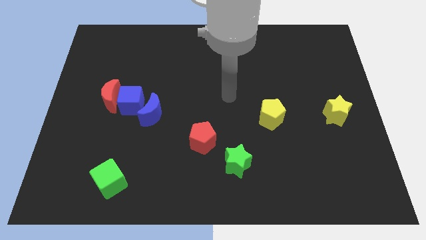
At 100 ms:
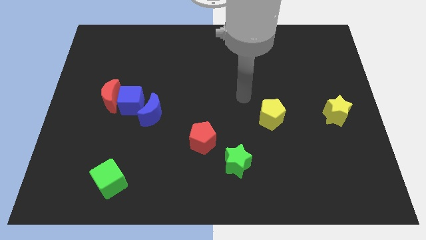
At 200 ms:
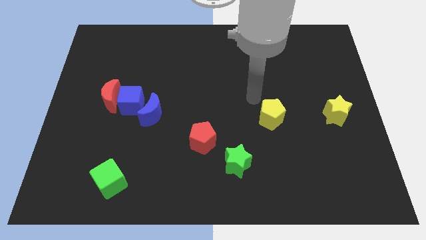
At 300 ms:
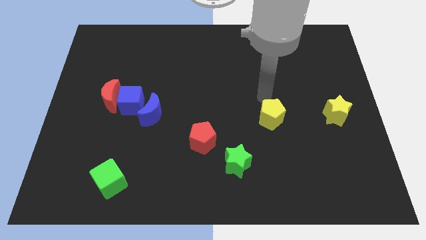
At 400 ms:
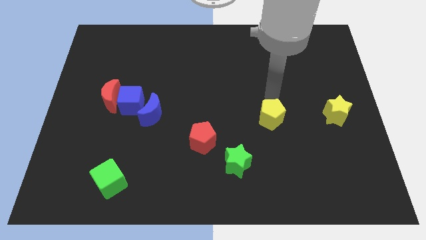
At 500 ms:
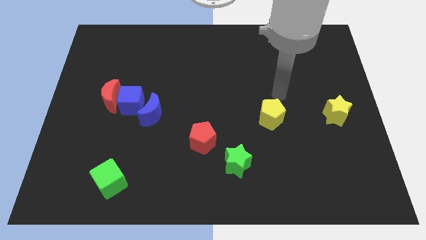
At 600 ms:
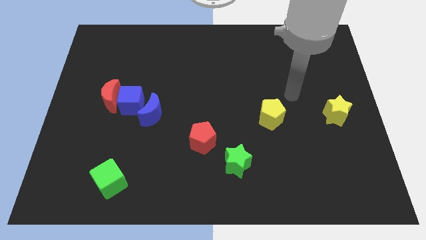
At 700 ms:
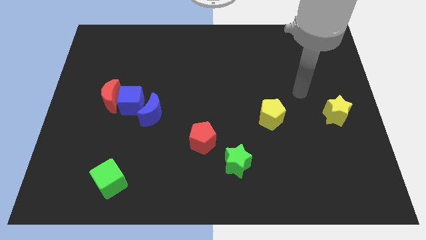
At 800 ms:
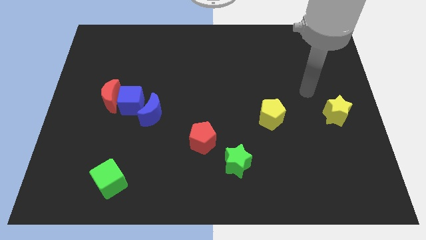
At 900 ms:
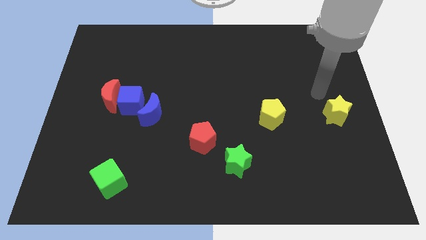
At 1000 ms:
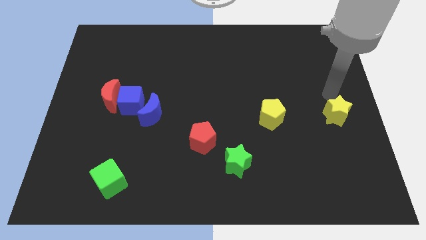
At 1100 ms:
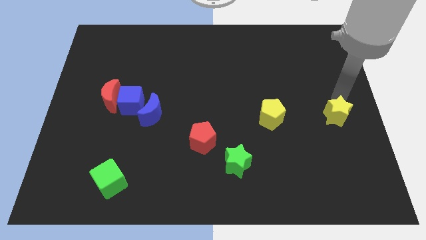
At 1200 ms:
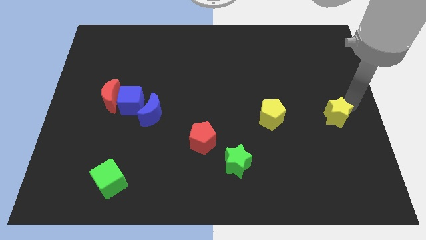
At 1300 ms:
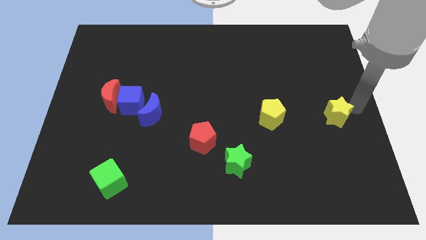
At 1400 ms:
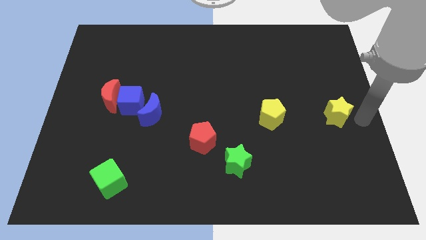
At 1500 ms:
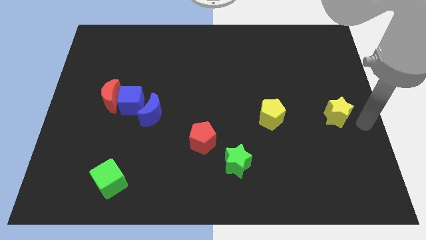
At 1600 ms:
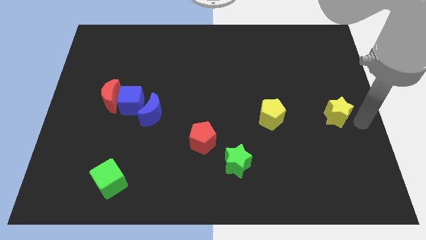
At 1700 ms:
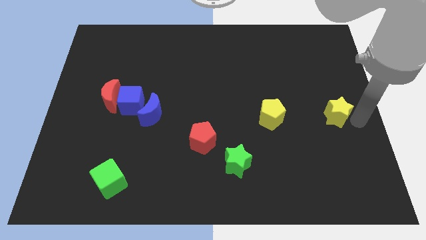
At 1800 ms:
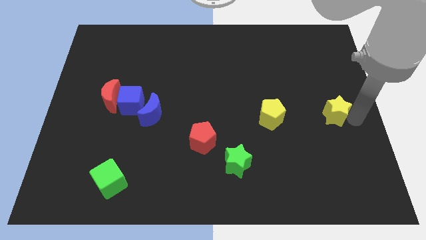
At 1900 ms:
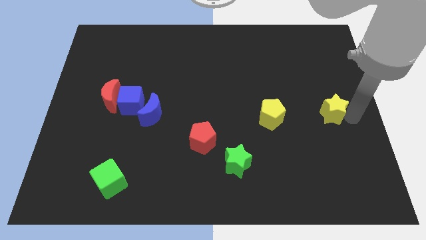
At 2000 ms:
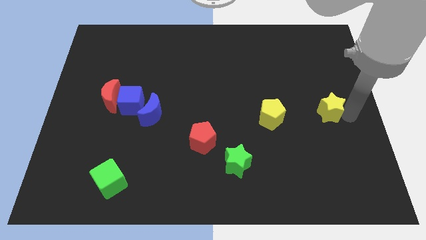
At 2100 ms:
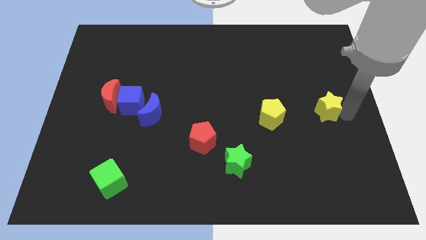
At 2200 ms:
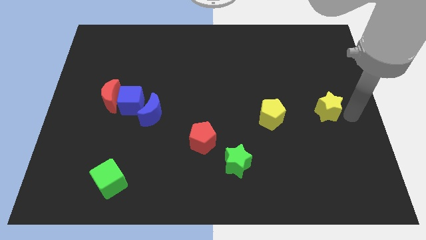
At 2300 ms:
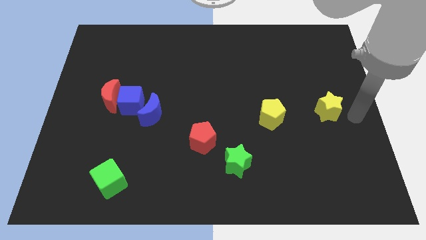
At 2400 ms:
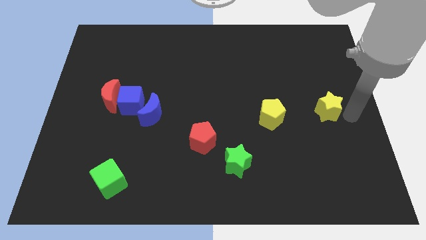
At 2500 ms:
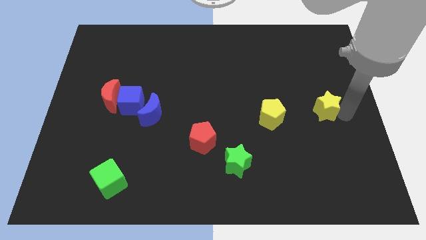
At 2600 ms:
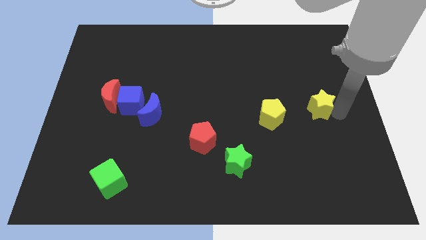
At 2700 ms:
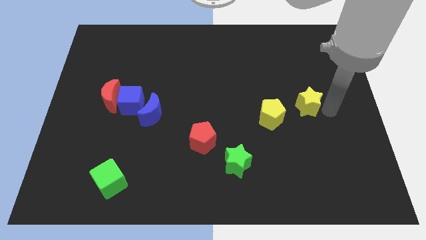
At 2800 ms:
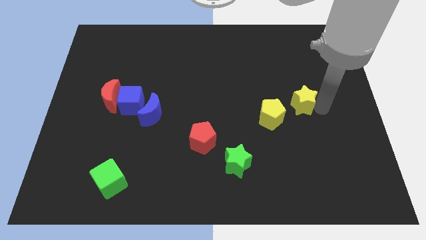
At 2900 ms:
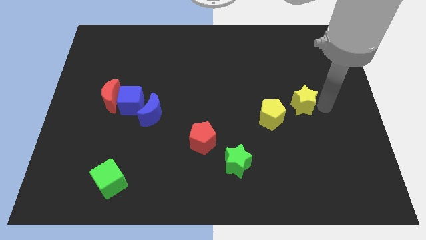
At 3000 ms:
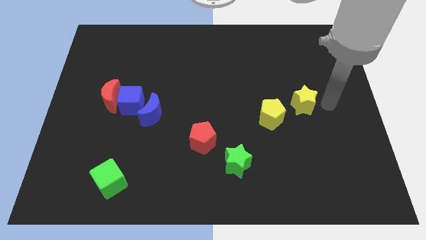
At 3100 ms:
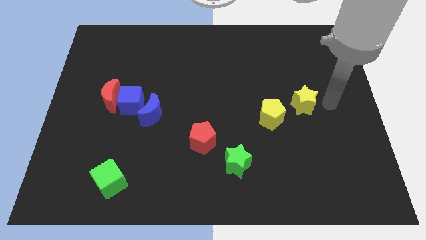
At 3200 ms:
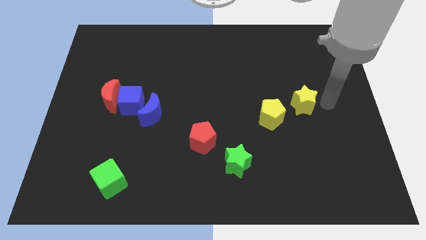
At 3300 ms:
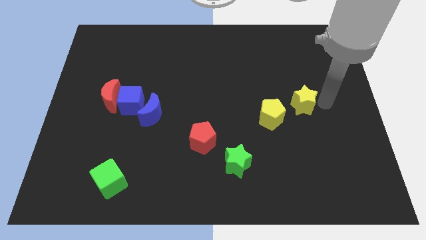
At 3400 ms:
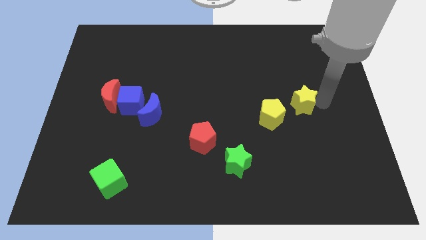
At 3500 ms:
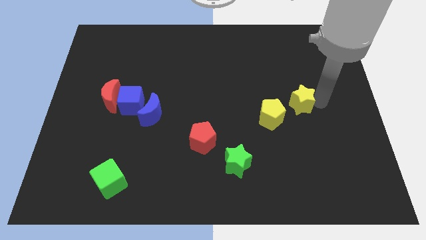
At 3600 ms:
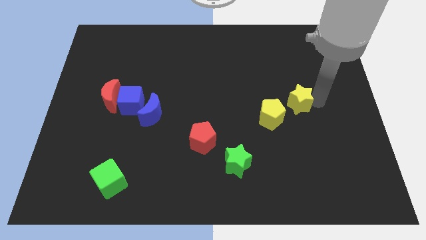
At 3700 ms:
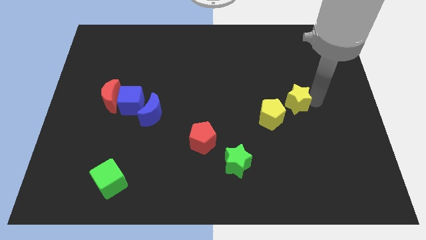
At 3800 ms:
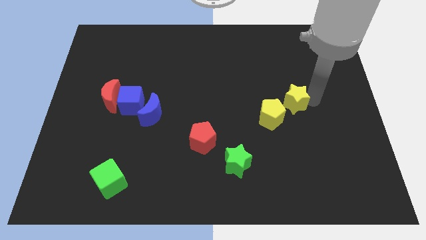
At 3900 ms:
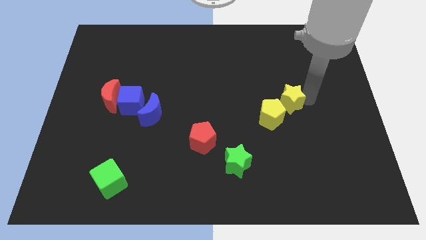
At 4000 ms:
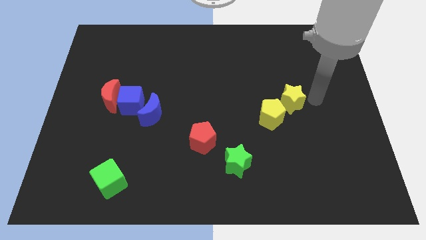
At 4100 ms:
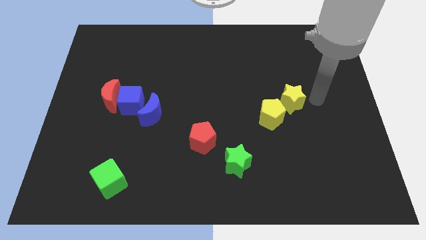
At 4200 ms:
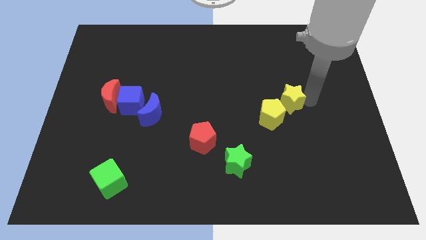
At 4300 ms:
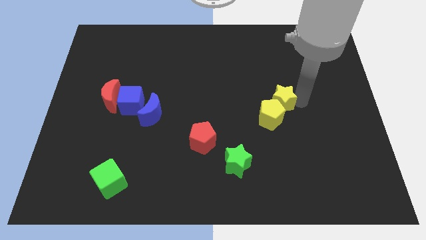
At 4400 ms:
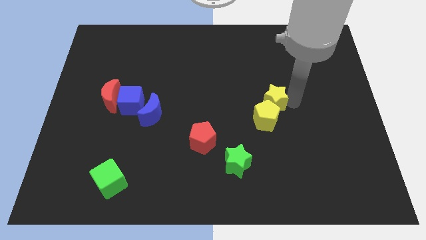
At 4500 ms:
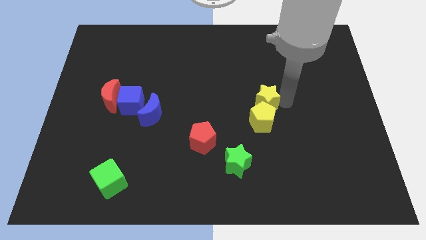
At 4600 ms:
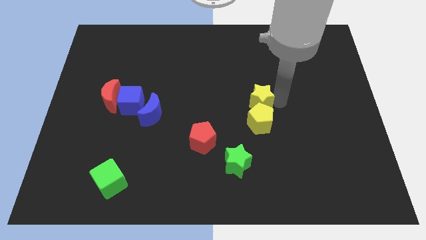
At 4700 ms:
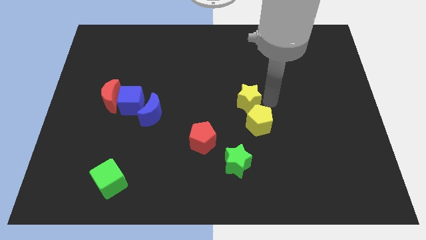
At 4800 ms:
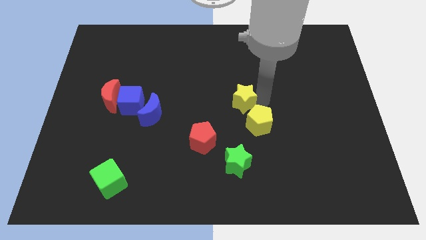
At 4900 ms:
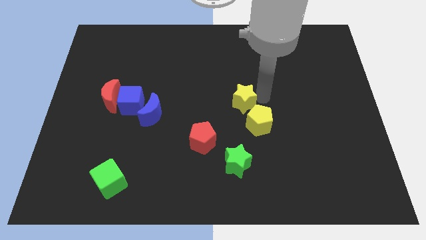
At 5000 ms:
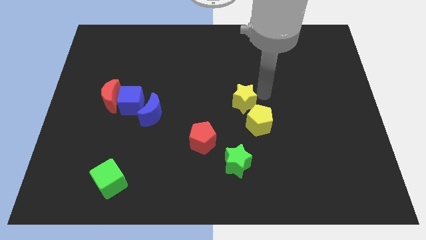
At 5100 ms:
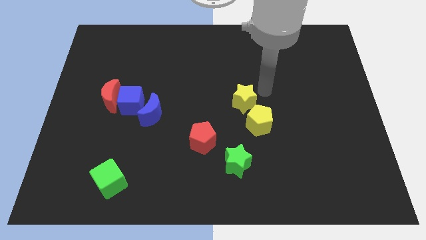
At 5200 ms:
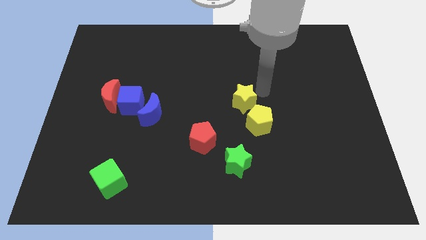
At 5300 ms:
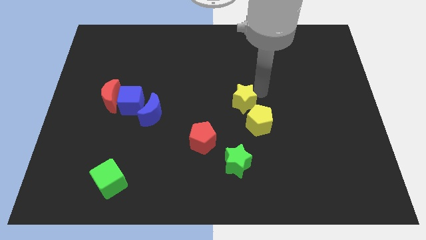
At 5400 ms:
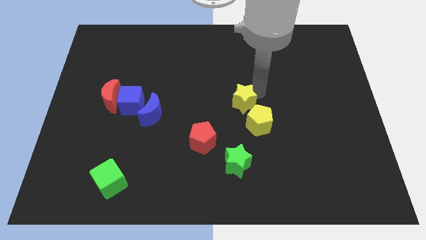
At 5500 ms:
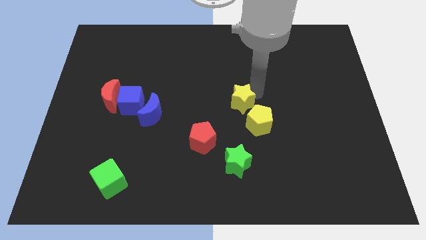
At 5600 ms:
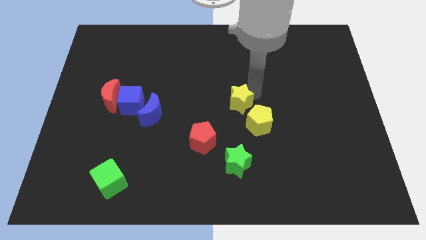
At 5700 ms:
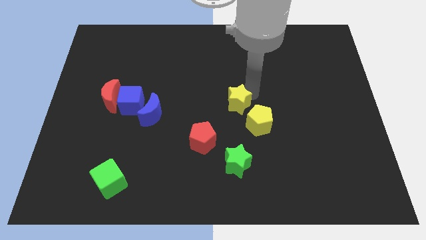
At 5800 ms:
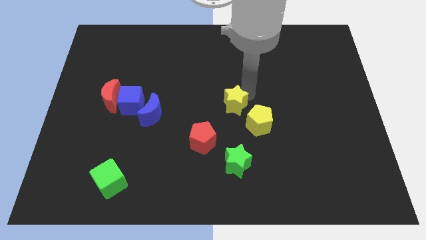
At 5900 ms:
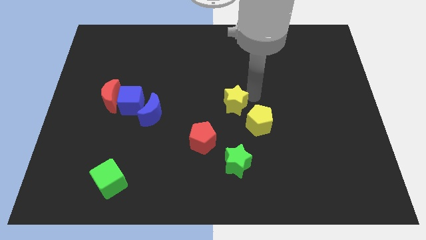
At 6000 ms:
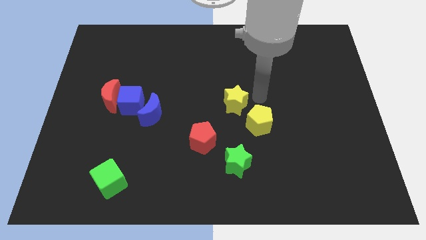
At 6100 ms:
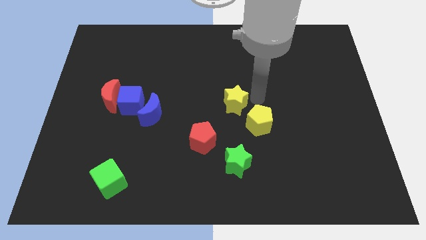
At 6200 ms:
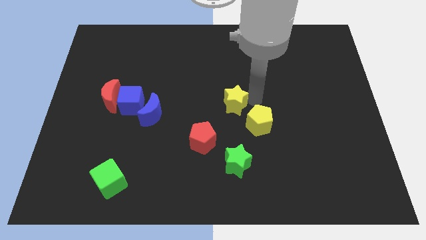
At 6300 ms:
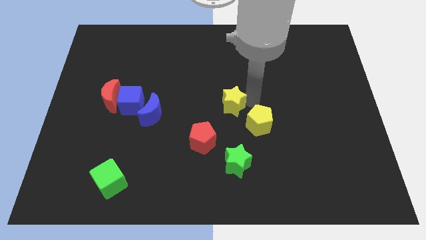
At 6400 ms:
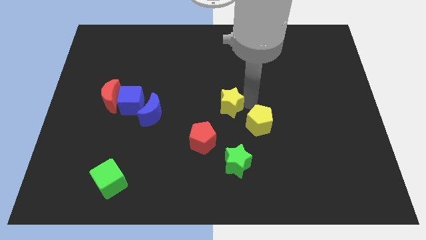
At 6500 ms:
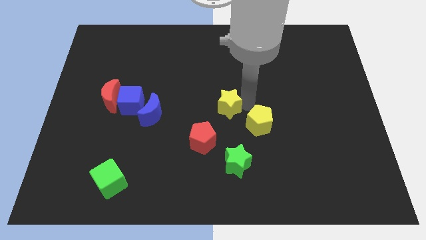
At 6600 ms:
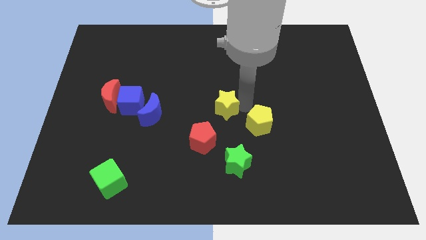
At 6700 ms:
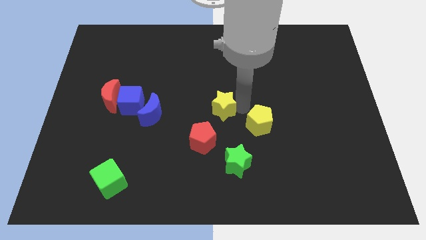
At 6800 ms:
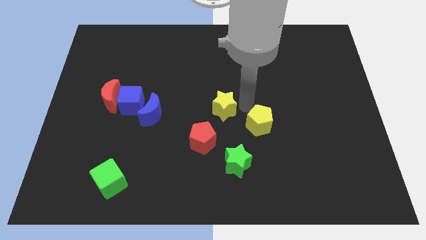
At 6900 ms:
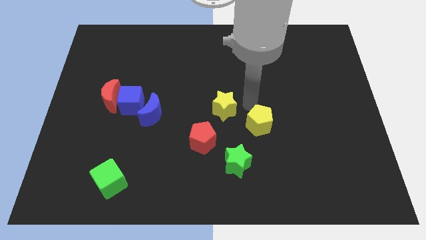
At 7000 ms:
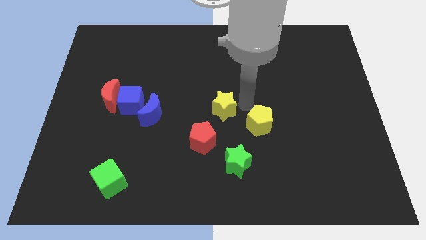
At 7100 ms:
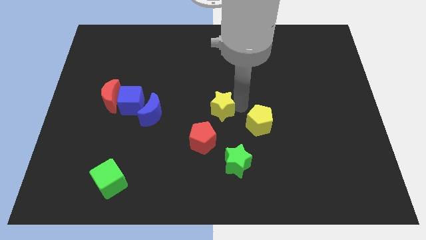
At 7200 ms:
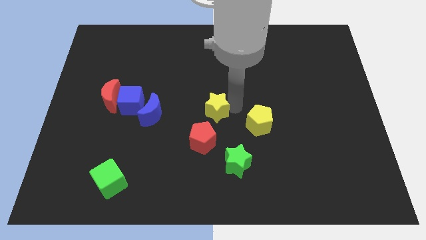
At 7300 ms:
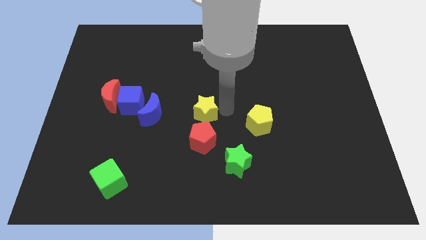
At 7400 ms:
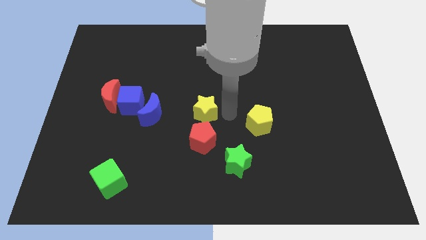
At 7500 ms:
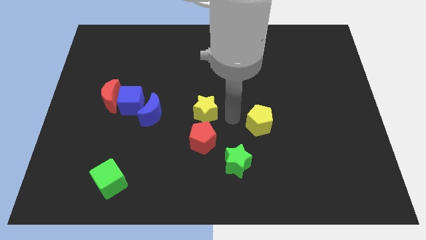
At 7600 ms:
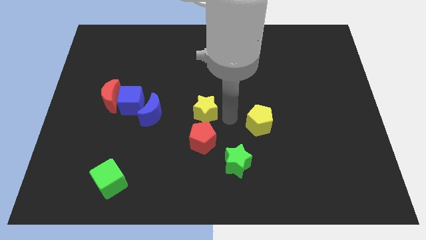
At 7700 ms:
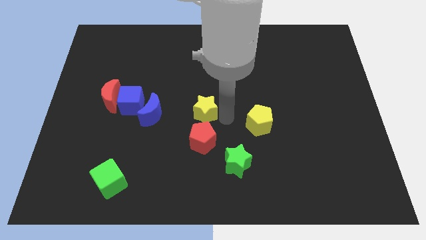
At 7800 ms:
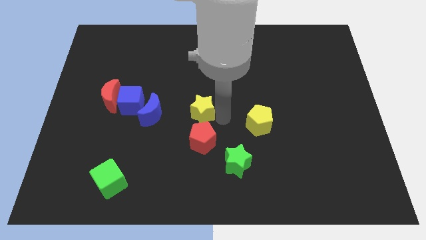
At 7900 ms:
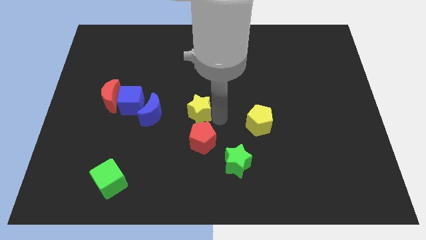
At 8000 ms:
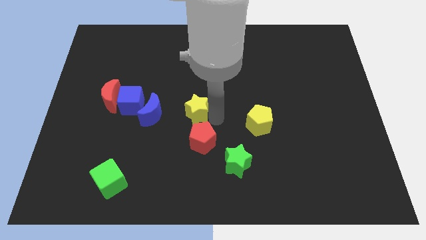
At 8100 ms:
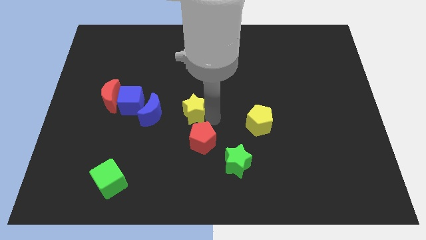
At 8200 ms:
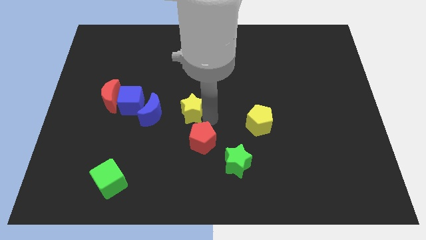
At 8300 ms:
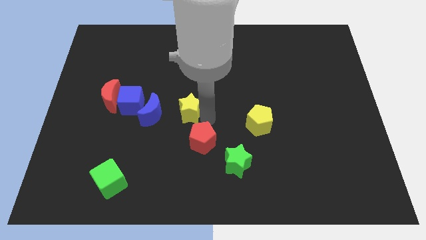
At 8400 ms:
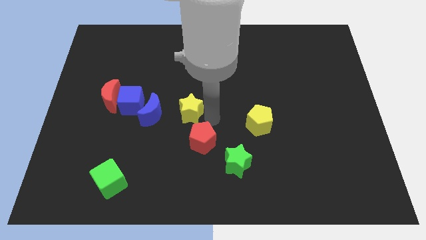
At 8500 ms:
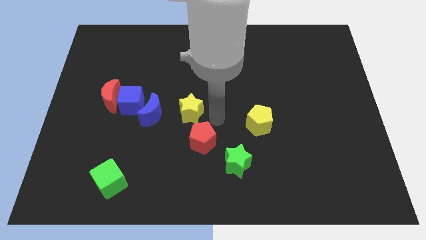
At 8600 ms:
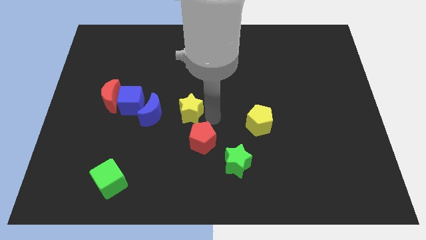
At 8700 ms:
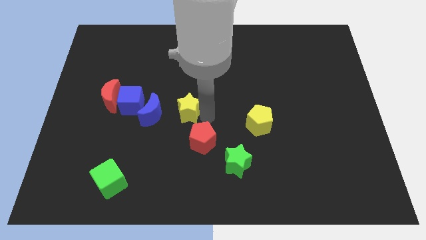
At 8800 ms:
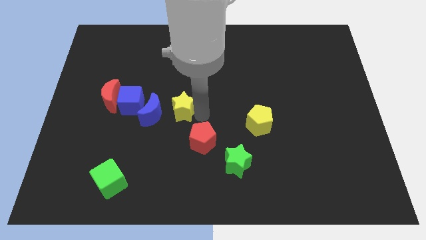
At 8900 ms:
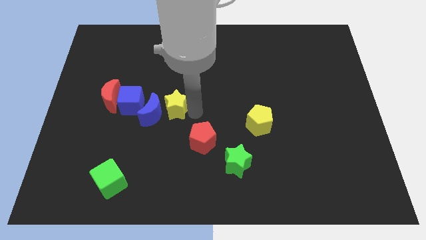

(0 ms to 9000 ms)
push the yellow star to the blue moon
